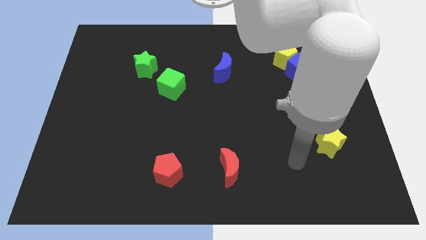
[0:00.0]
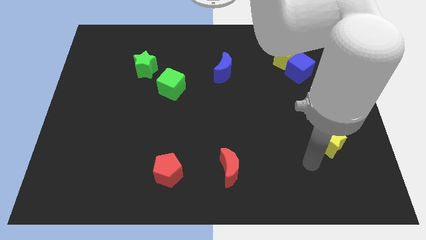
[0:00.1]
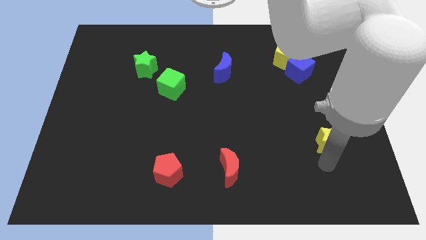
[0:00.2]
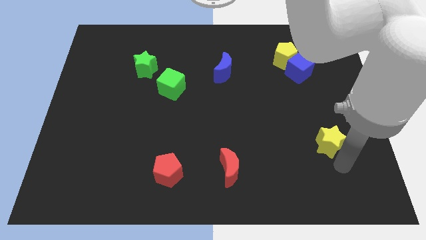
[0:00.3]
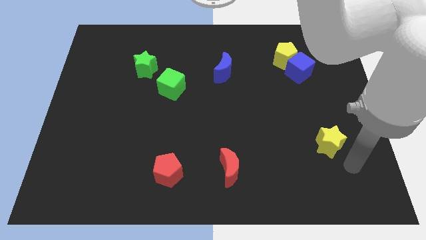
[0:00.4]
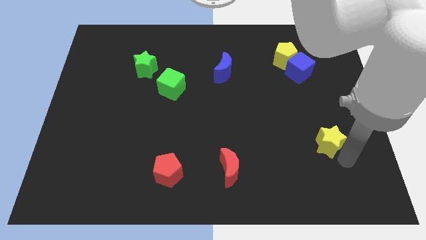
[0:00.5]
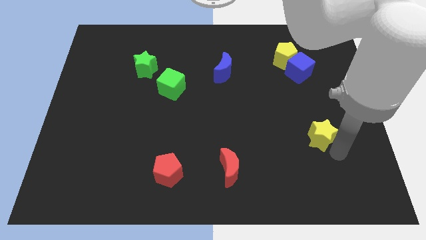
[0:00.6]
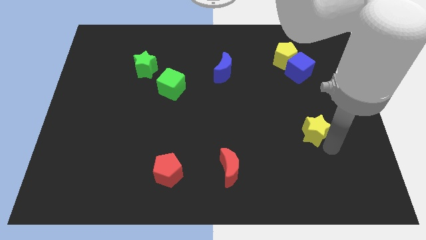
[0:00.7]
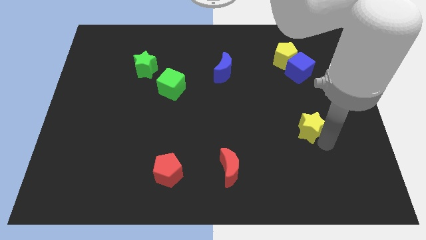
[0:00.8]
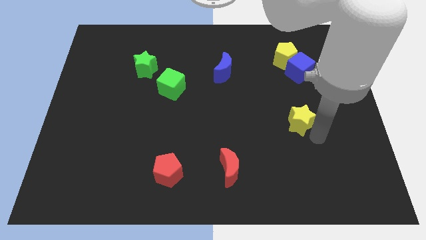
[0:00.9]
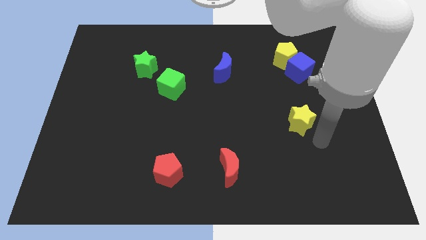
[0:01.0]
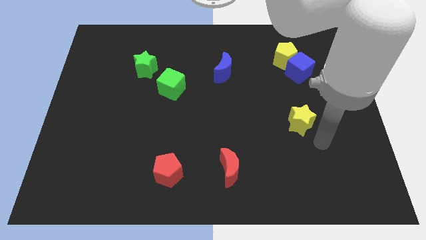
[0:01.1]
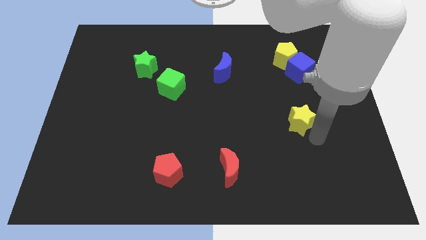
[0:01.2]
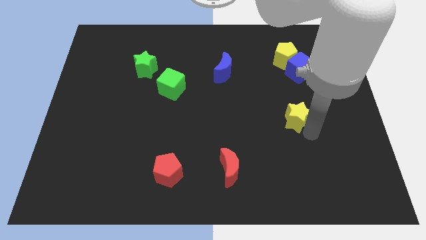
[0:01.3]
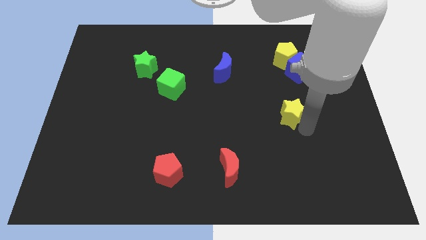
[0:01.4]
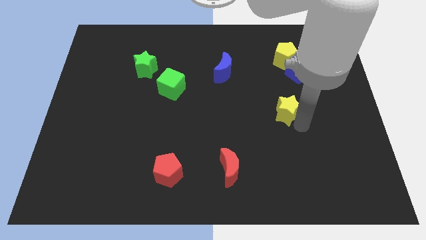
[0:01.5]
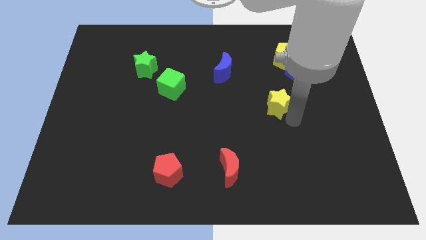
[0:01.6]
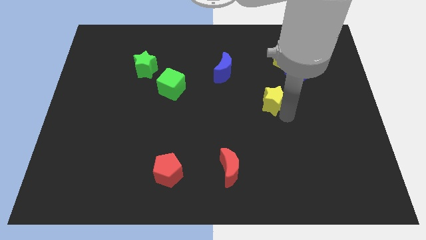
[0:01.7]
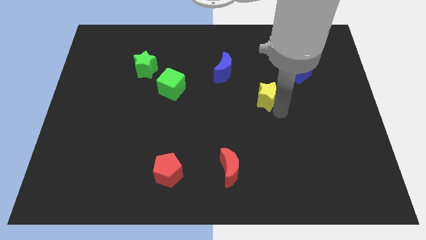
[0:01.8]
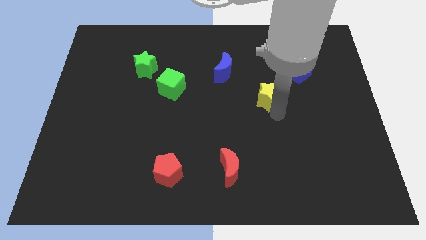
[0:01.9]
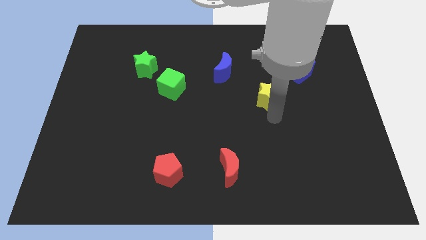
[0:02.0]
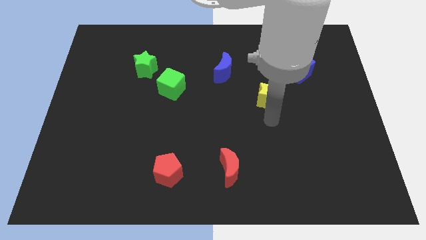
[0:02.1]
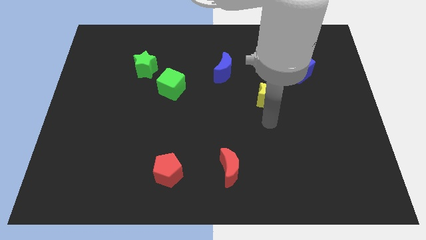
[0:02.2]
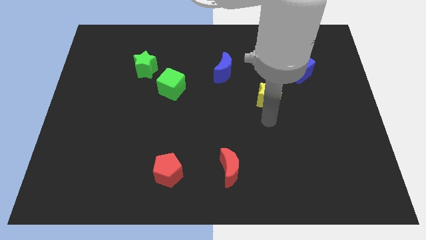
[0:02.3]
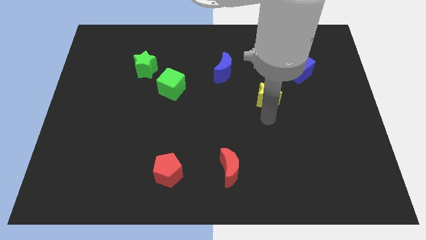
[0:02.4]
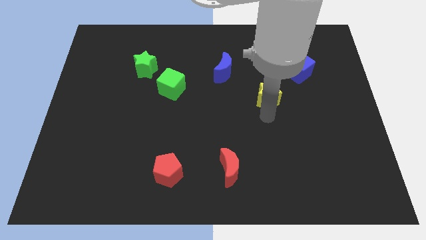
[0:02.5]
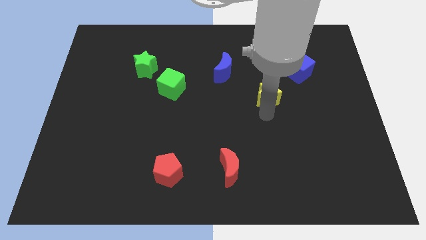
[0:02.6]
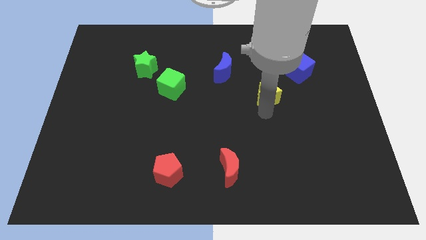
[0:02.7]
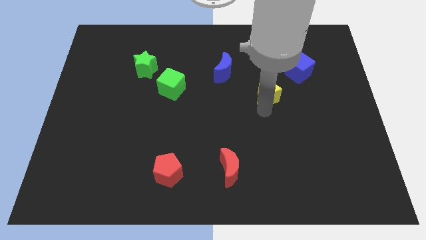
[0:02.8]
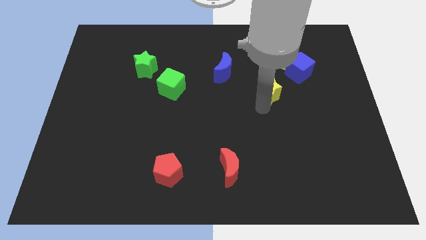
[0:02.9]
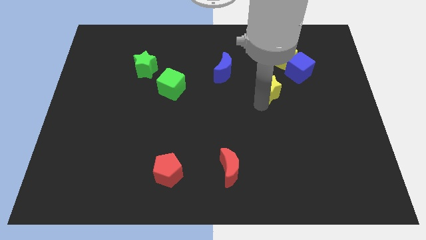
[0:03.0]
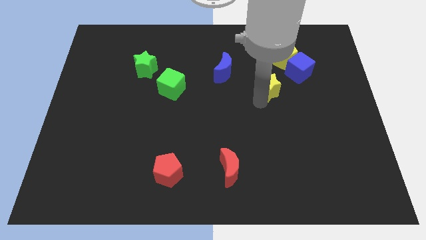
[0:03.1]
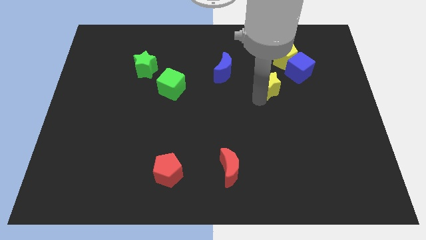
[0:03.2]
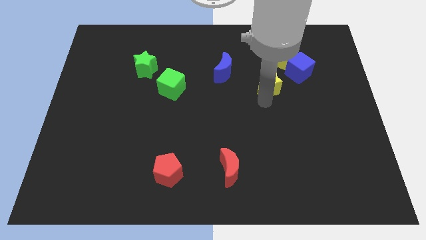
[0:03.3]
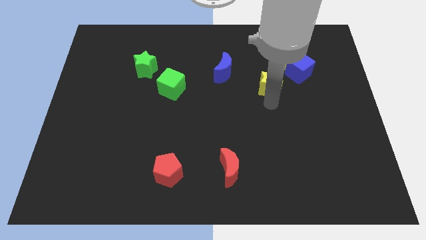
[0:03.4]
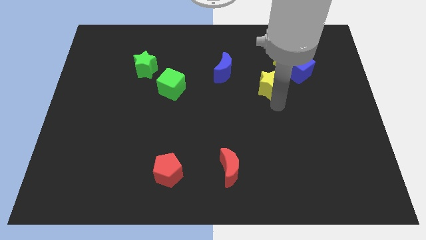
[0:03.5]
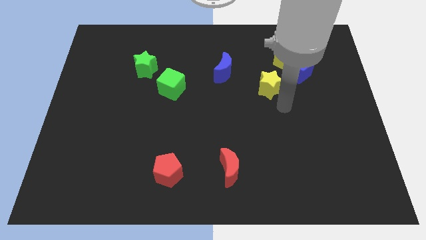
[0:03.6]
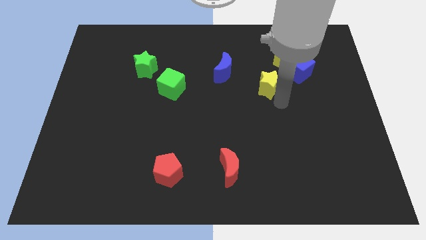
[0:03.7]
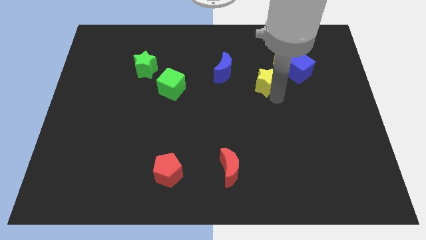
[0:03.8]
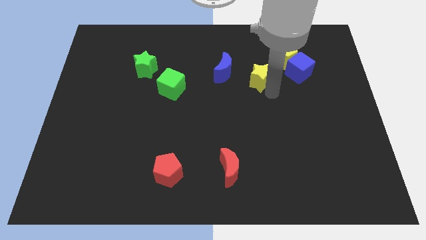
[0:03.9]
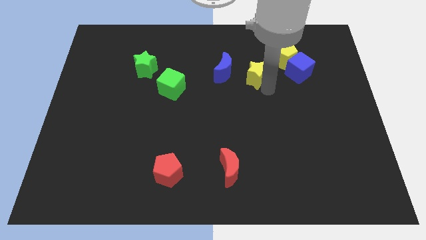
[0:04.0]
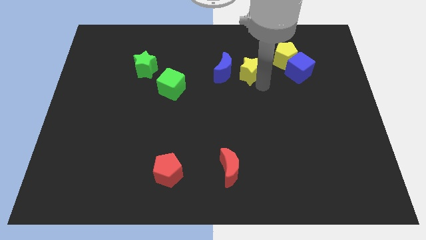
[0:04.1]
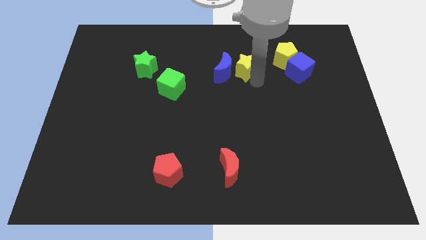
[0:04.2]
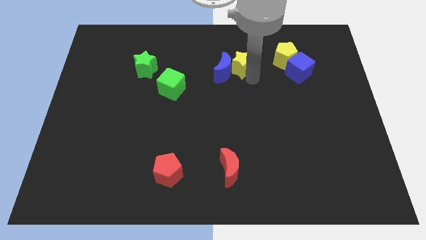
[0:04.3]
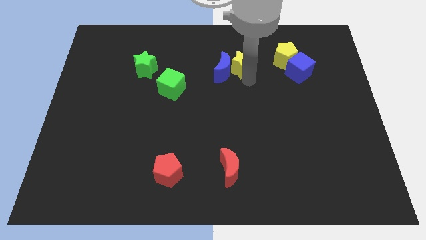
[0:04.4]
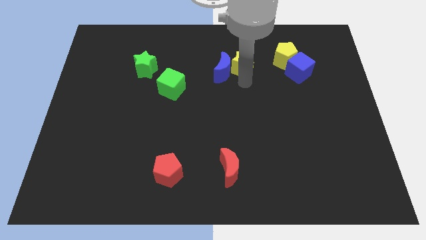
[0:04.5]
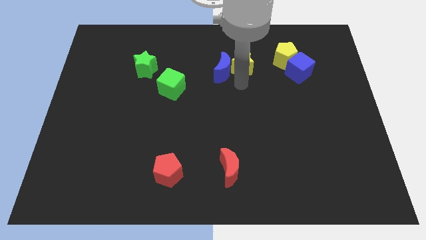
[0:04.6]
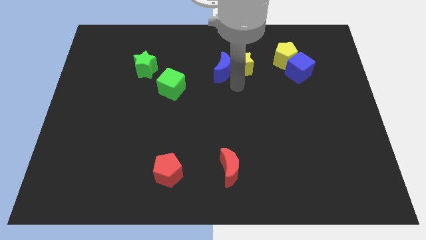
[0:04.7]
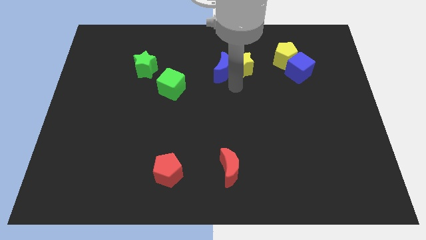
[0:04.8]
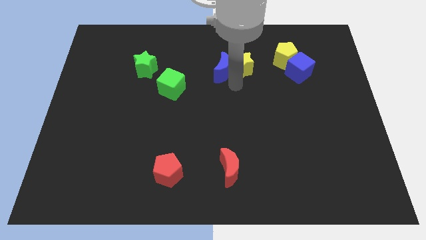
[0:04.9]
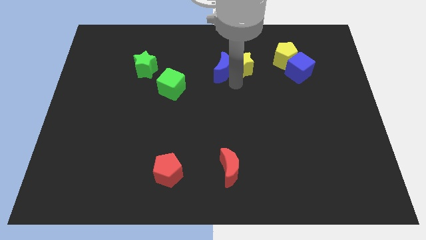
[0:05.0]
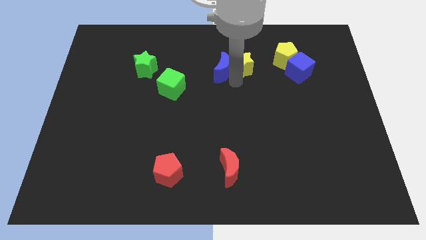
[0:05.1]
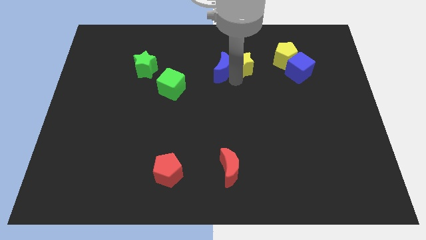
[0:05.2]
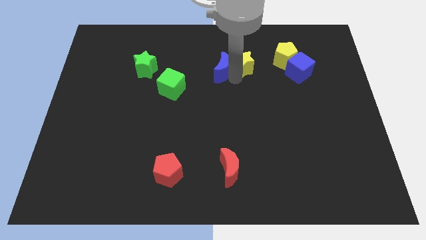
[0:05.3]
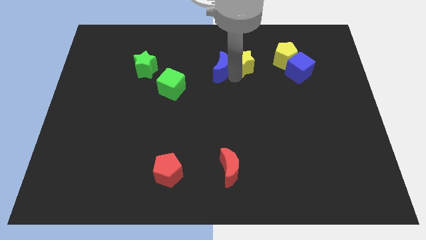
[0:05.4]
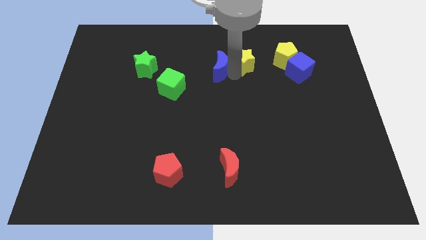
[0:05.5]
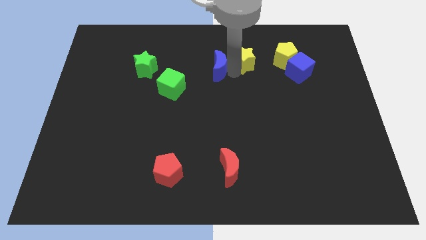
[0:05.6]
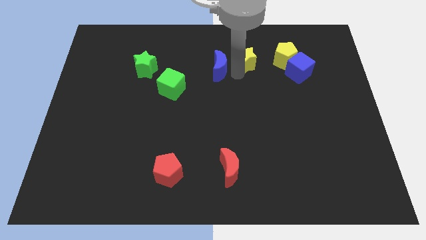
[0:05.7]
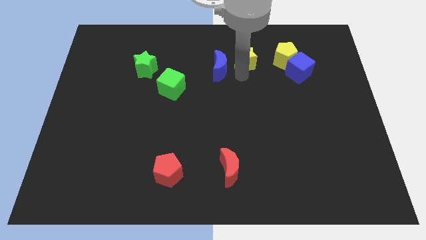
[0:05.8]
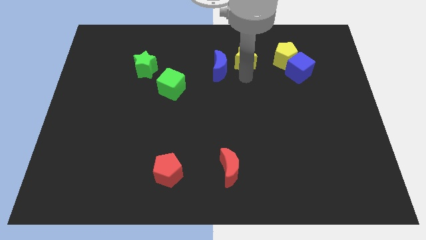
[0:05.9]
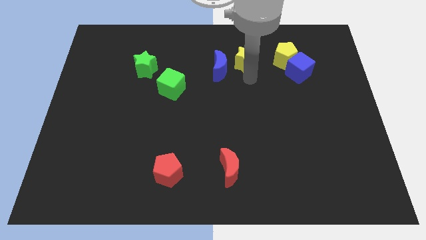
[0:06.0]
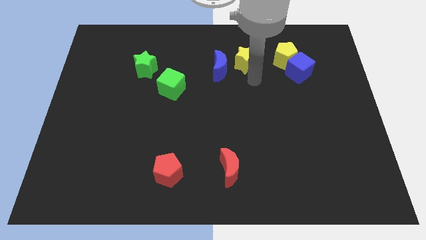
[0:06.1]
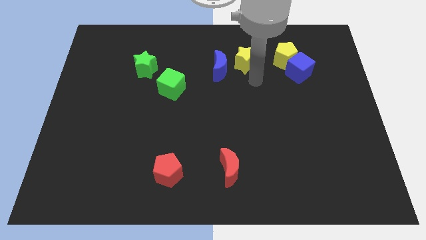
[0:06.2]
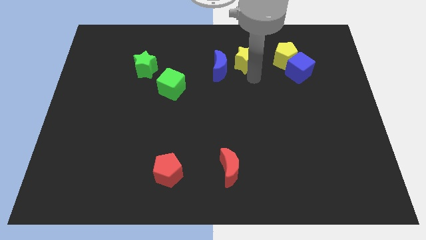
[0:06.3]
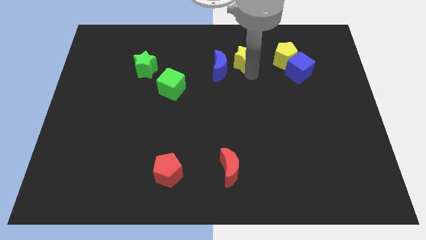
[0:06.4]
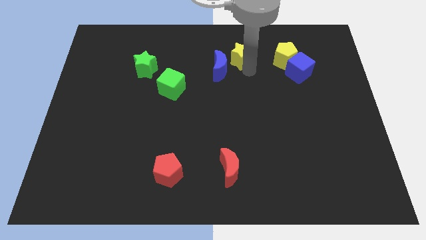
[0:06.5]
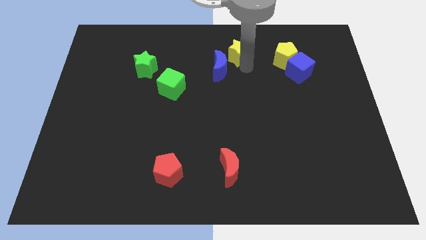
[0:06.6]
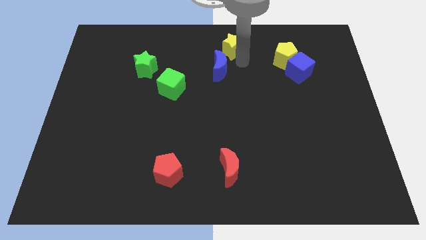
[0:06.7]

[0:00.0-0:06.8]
slide the yellow star to the top

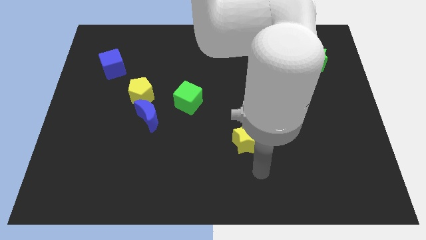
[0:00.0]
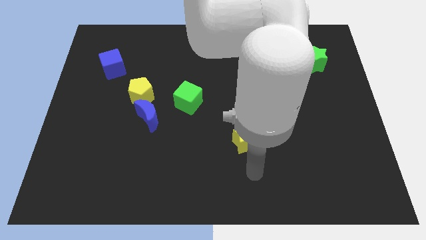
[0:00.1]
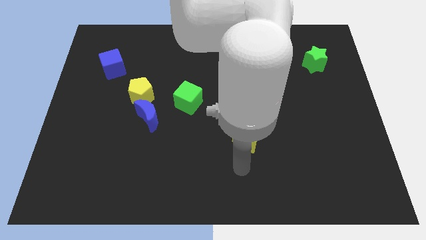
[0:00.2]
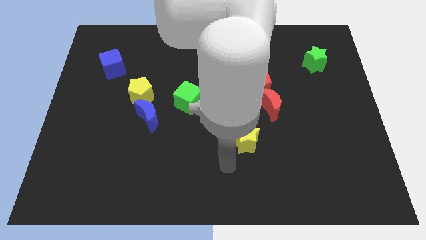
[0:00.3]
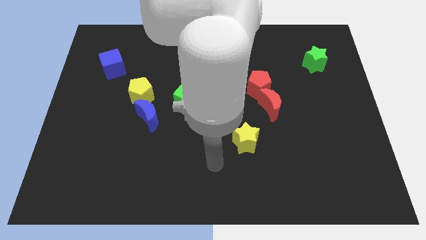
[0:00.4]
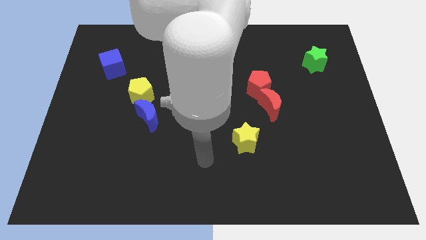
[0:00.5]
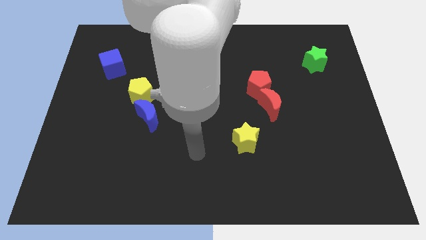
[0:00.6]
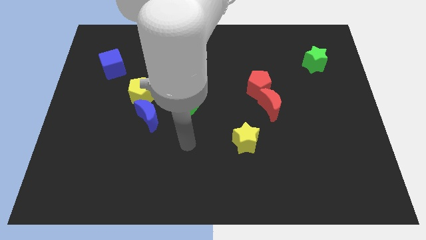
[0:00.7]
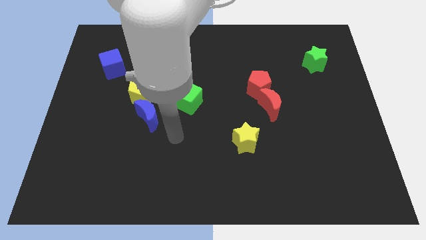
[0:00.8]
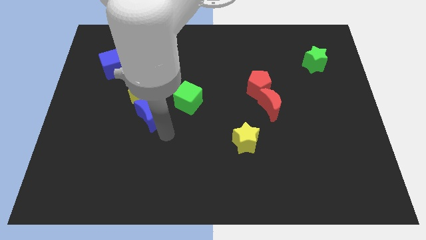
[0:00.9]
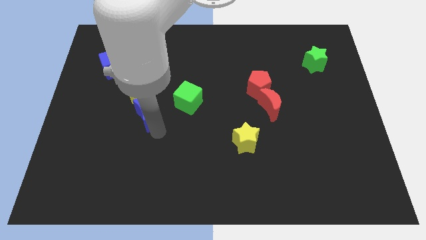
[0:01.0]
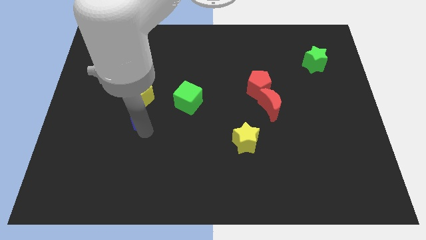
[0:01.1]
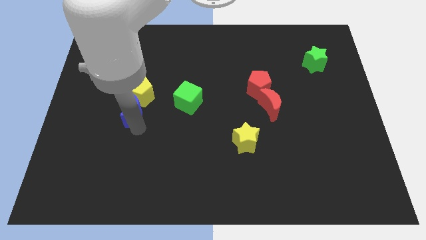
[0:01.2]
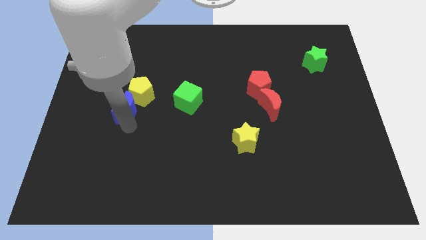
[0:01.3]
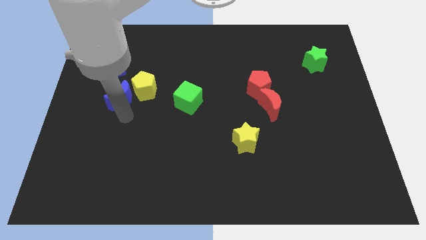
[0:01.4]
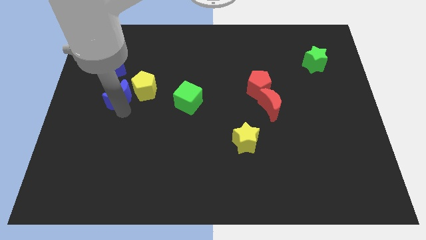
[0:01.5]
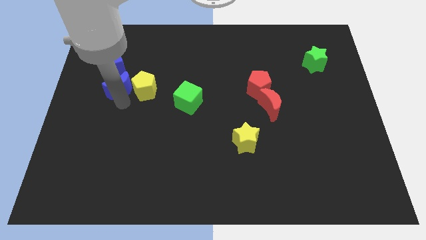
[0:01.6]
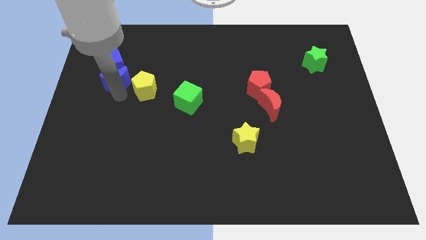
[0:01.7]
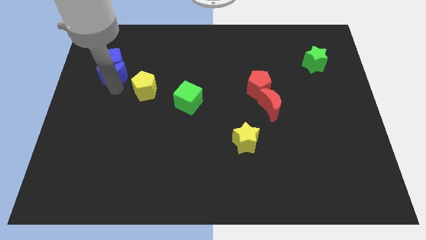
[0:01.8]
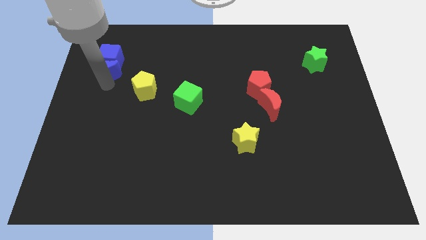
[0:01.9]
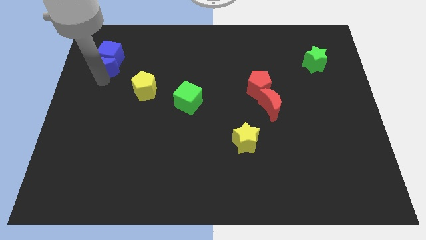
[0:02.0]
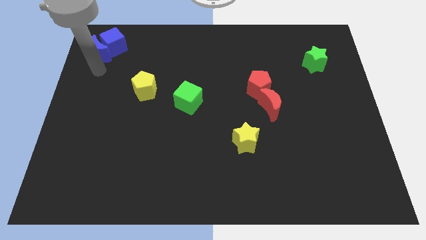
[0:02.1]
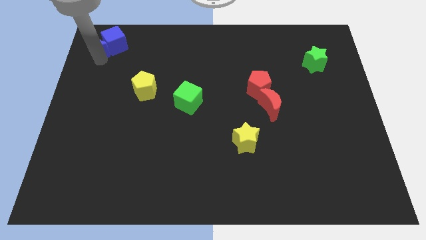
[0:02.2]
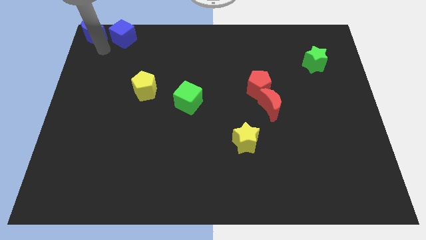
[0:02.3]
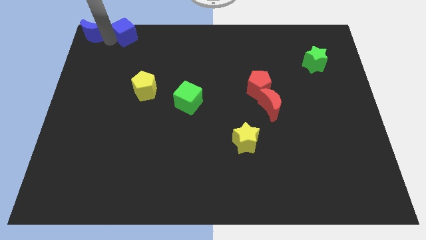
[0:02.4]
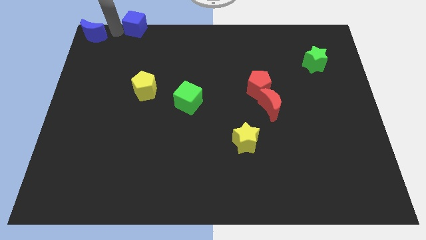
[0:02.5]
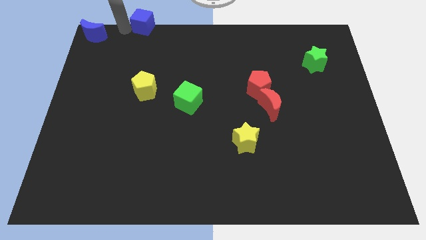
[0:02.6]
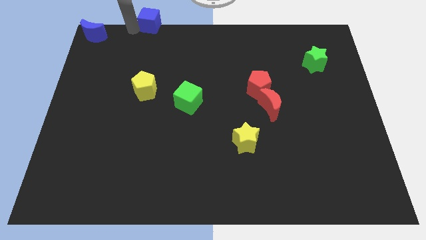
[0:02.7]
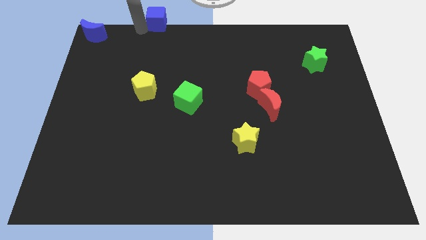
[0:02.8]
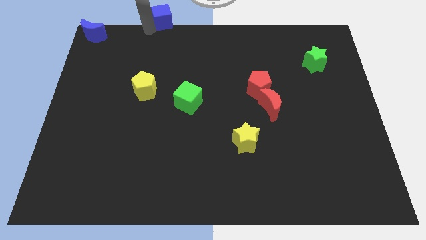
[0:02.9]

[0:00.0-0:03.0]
push the blue cube to the top
